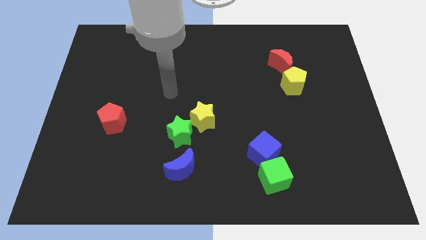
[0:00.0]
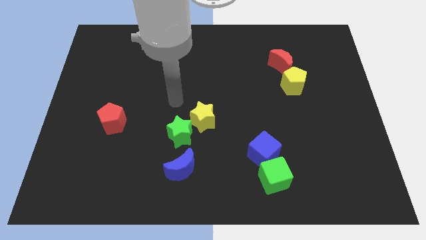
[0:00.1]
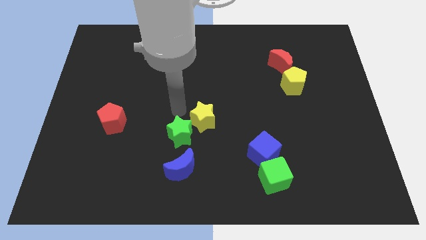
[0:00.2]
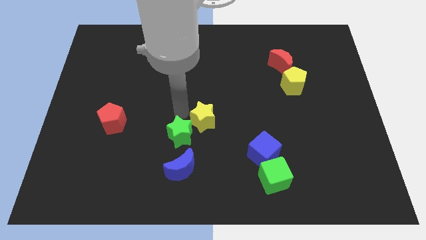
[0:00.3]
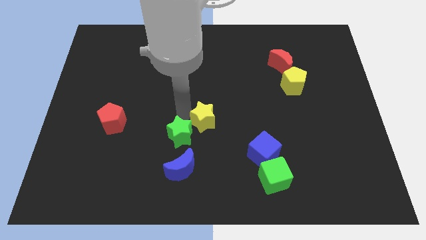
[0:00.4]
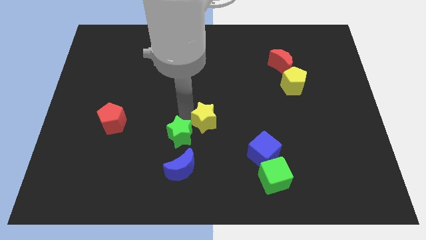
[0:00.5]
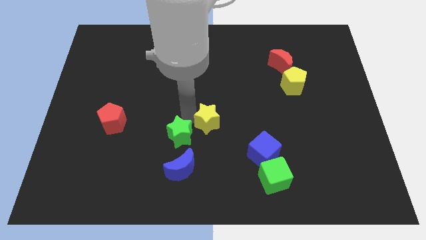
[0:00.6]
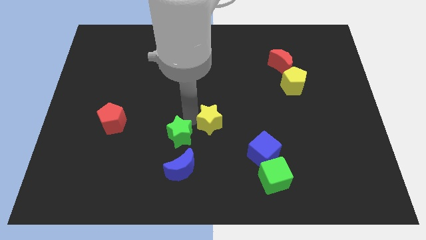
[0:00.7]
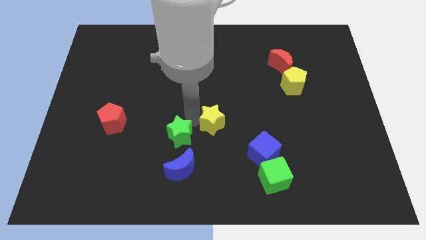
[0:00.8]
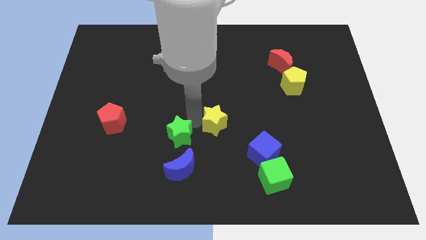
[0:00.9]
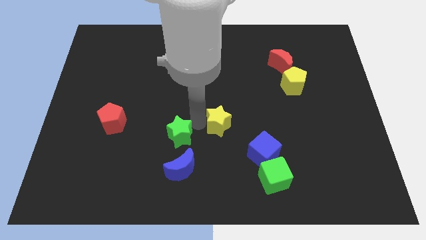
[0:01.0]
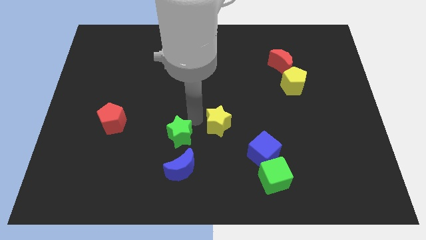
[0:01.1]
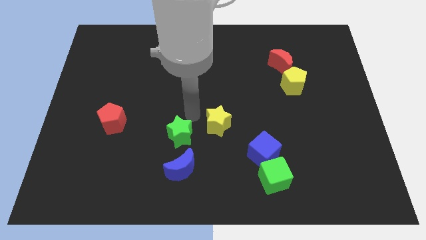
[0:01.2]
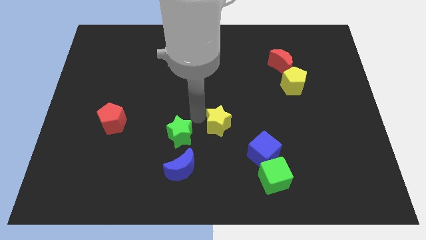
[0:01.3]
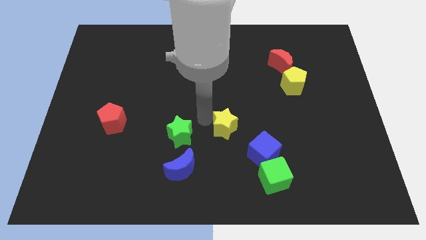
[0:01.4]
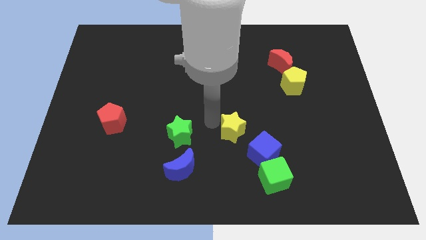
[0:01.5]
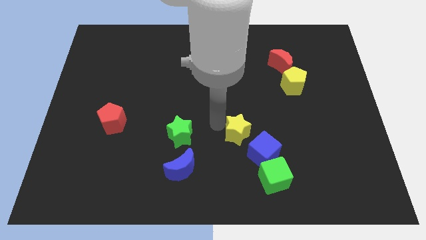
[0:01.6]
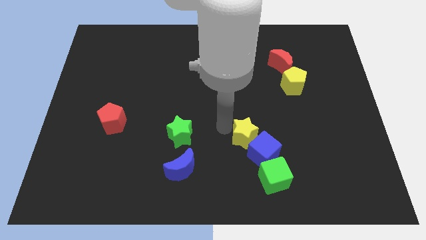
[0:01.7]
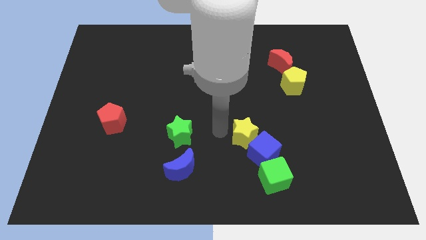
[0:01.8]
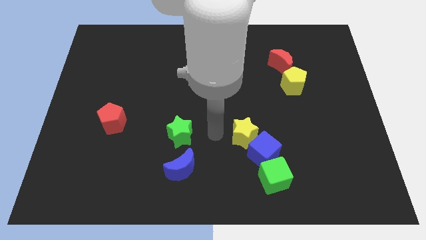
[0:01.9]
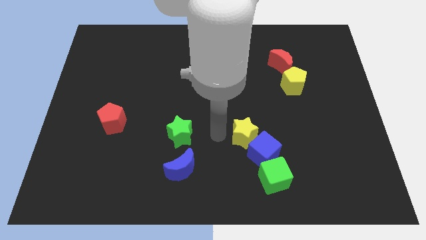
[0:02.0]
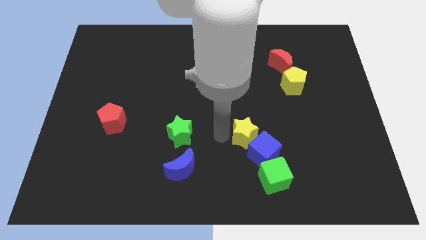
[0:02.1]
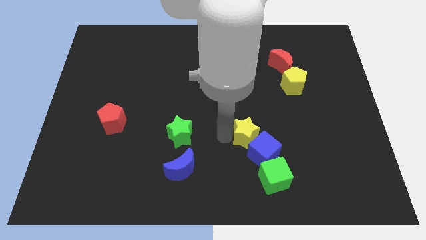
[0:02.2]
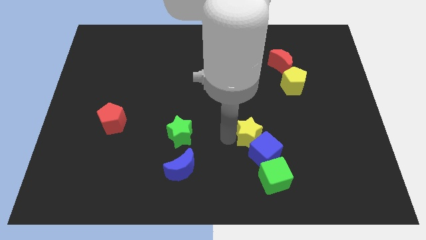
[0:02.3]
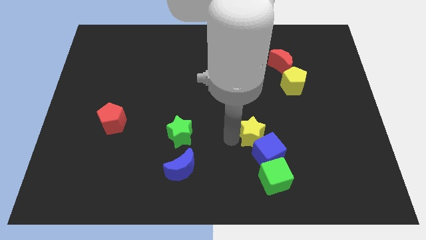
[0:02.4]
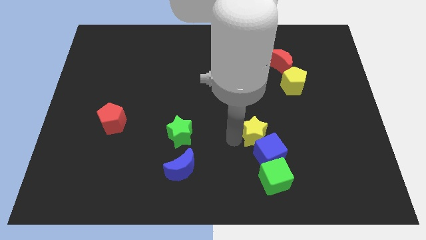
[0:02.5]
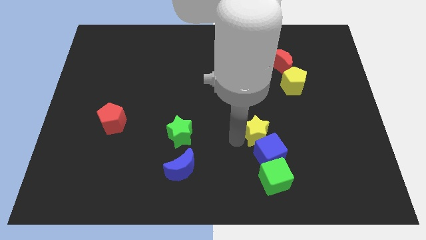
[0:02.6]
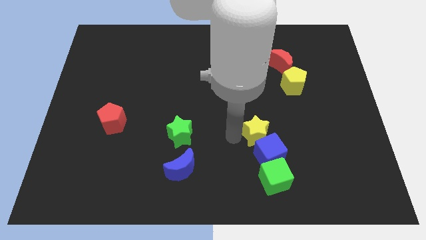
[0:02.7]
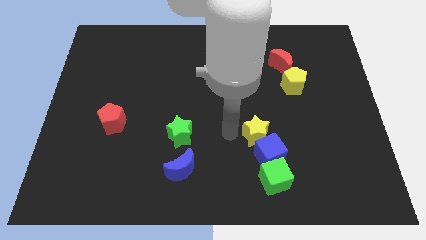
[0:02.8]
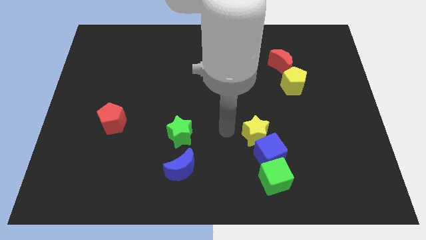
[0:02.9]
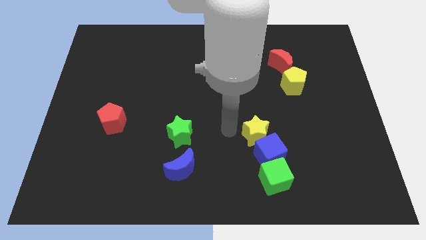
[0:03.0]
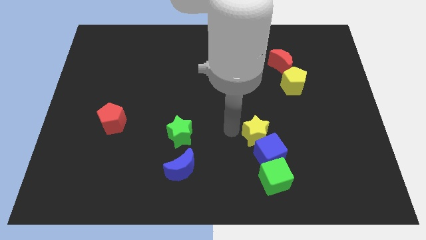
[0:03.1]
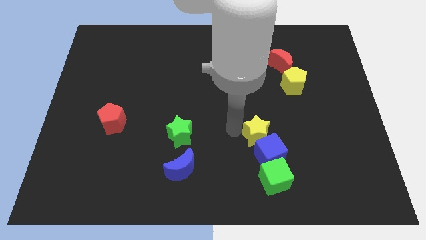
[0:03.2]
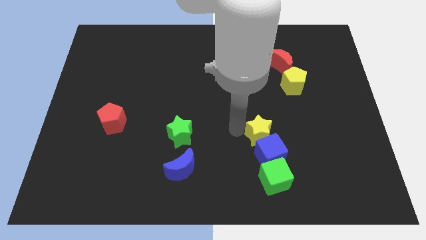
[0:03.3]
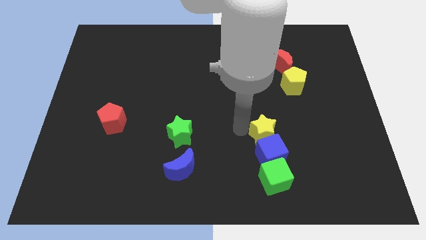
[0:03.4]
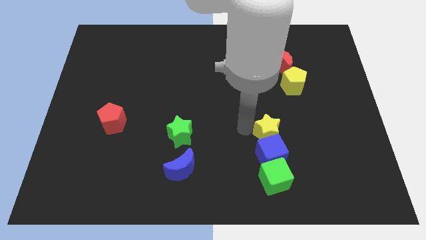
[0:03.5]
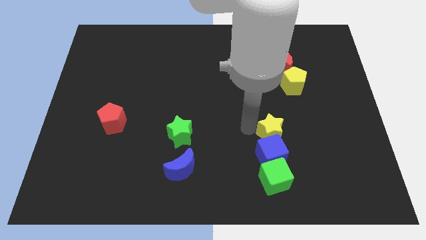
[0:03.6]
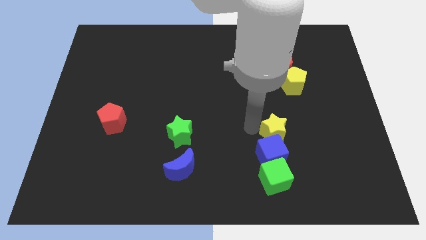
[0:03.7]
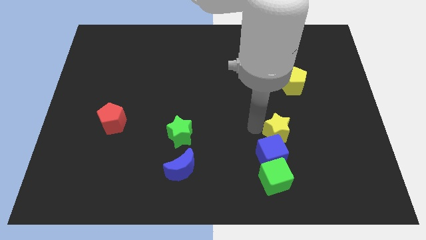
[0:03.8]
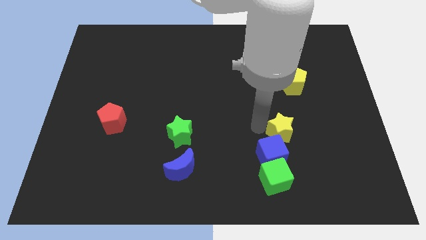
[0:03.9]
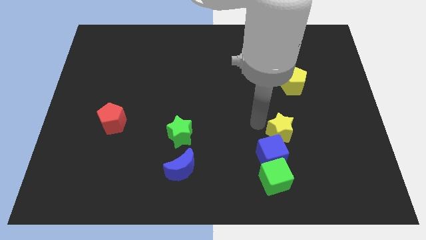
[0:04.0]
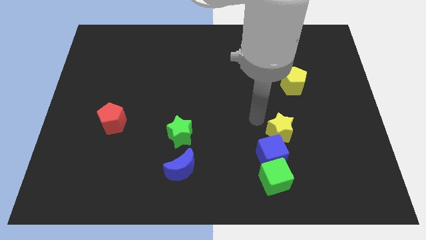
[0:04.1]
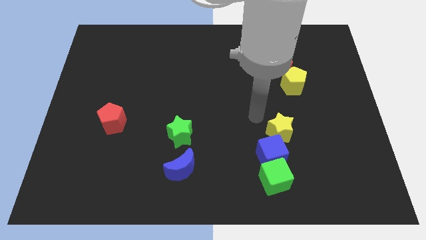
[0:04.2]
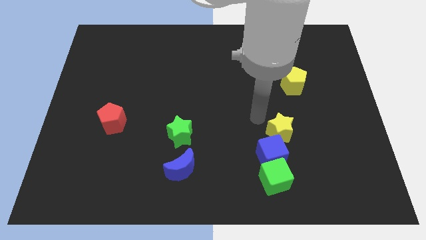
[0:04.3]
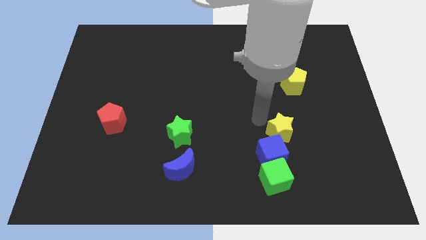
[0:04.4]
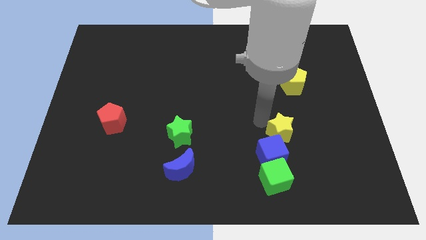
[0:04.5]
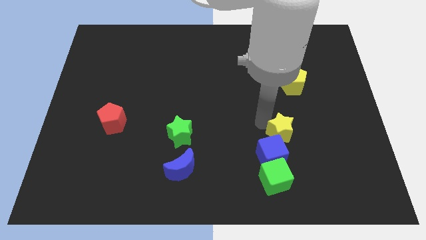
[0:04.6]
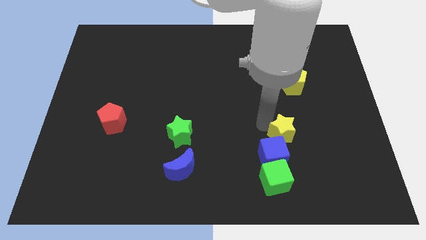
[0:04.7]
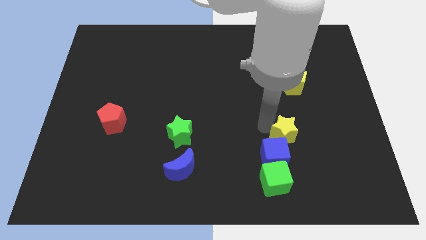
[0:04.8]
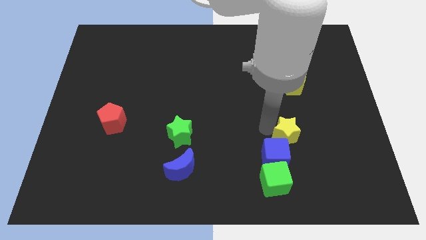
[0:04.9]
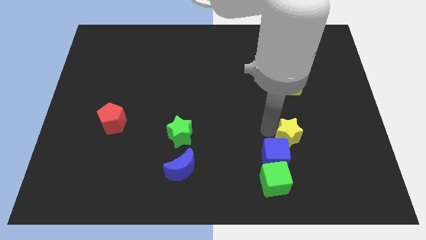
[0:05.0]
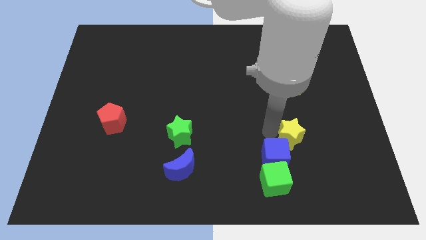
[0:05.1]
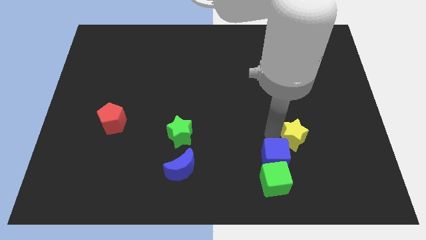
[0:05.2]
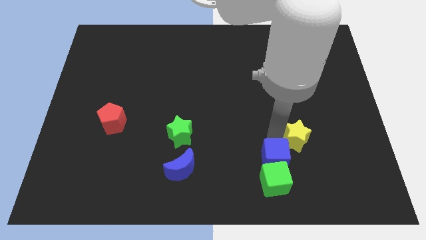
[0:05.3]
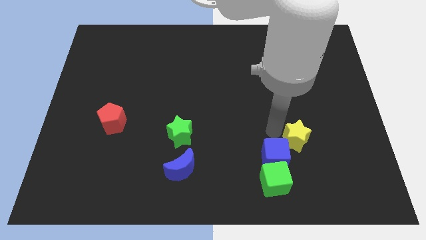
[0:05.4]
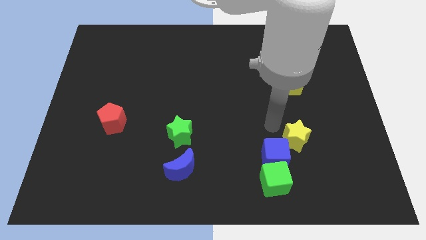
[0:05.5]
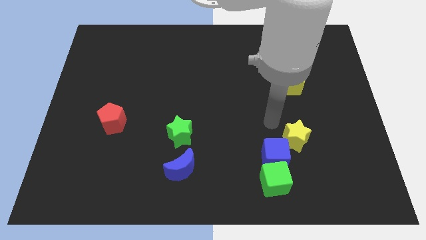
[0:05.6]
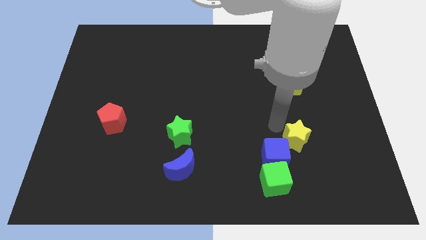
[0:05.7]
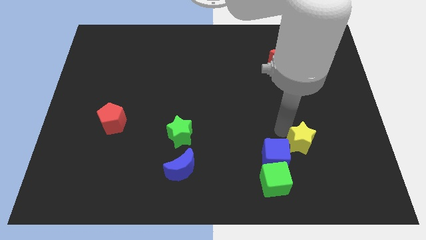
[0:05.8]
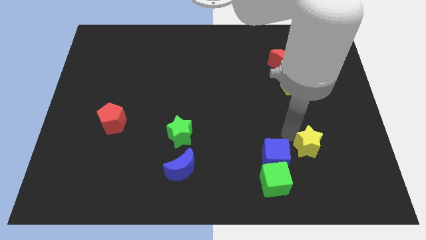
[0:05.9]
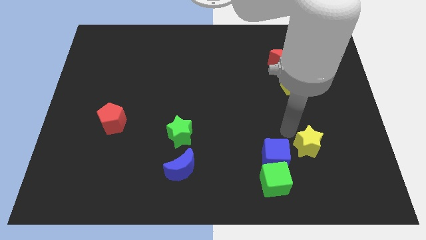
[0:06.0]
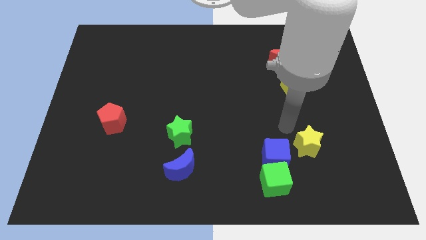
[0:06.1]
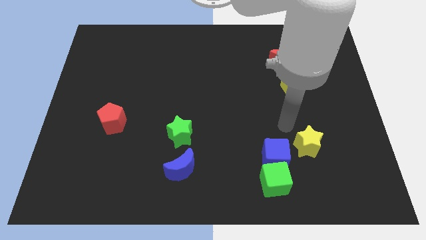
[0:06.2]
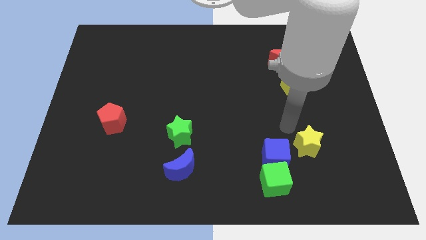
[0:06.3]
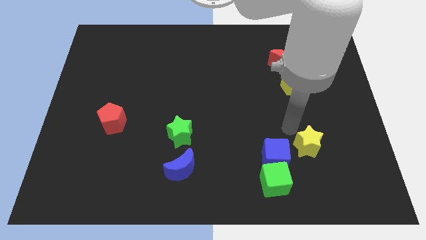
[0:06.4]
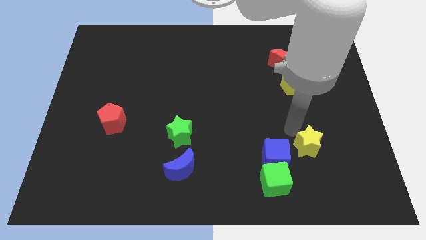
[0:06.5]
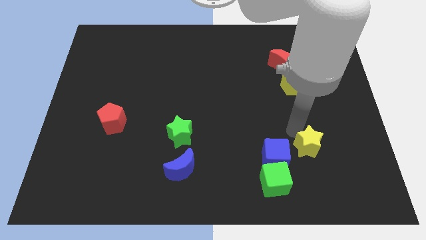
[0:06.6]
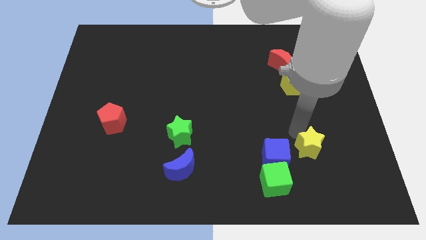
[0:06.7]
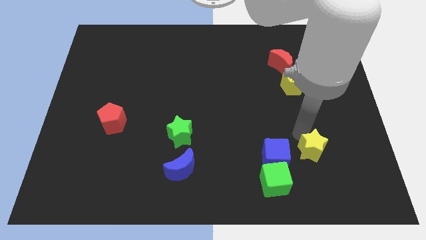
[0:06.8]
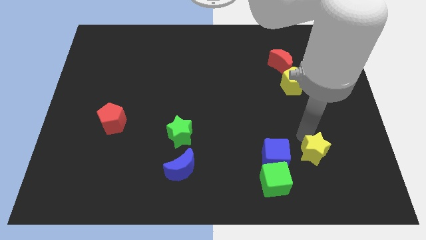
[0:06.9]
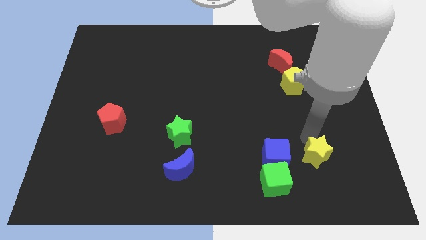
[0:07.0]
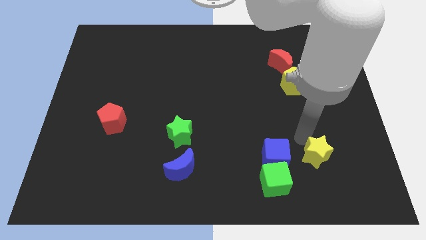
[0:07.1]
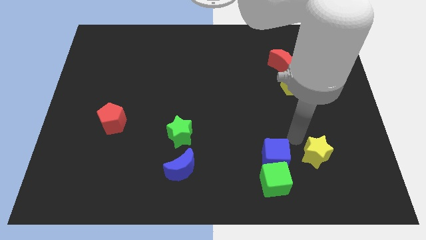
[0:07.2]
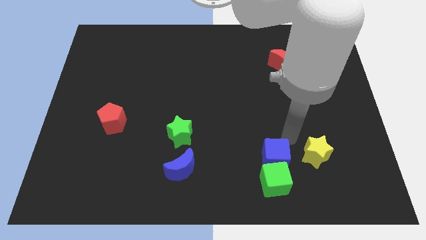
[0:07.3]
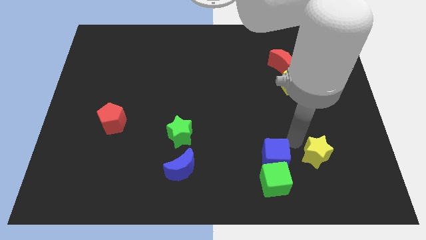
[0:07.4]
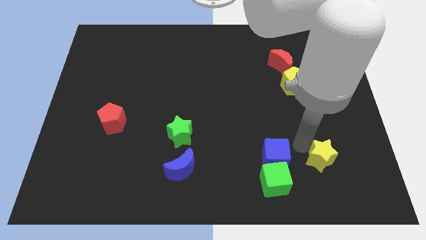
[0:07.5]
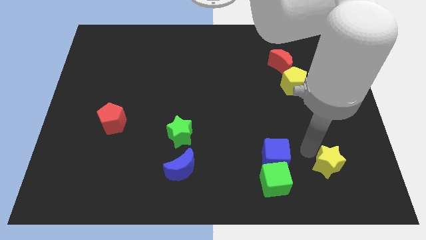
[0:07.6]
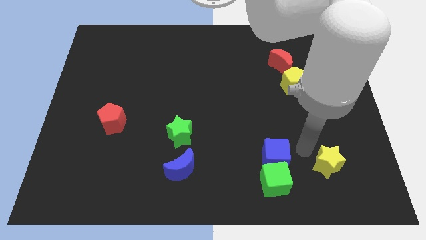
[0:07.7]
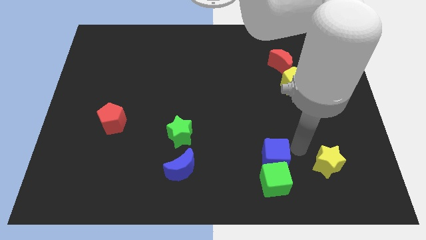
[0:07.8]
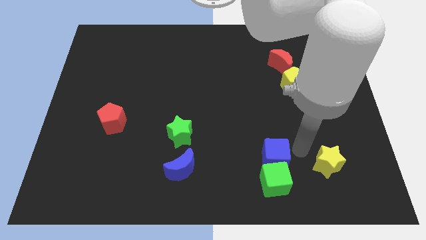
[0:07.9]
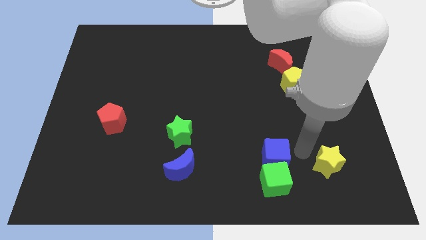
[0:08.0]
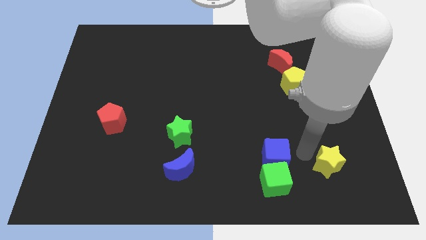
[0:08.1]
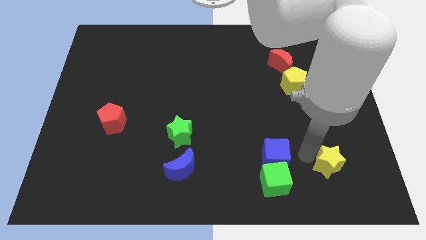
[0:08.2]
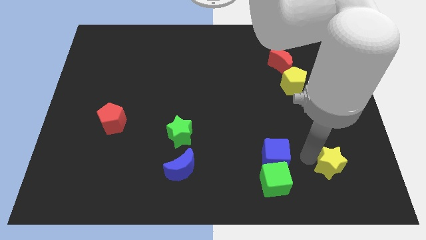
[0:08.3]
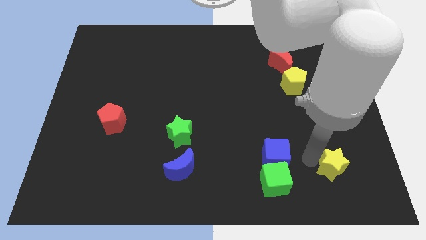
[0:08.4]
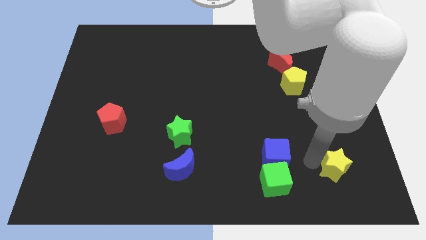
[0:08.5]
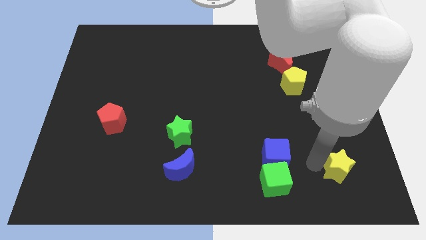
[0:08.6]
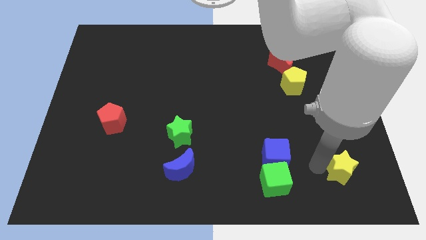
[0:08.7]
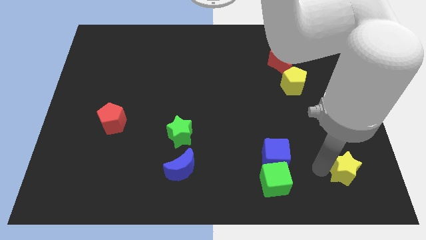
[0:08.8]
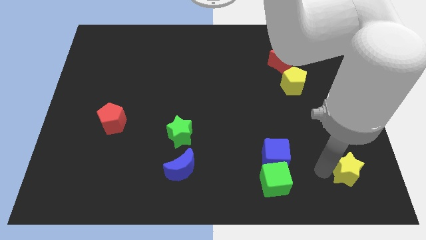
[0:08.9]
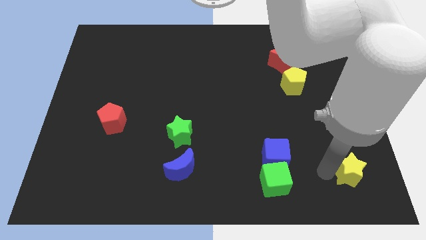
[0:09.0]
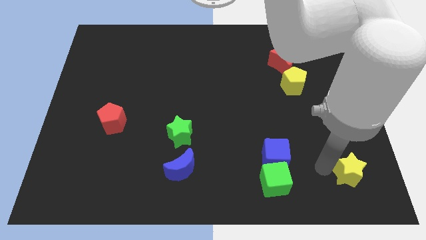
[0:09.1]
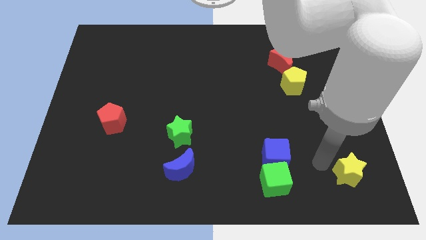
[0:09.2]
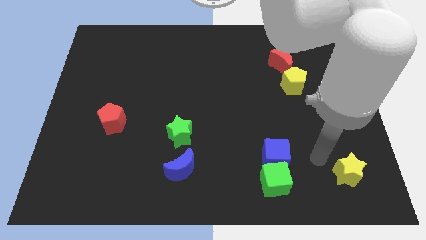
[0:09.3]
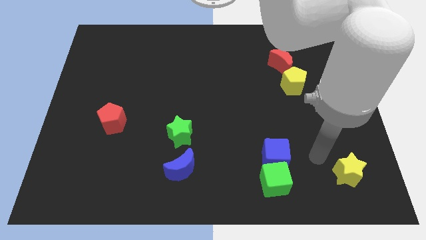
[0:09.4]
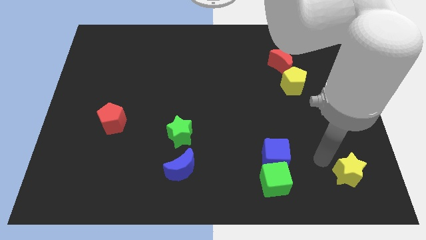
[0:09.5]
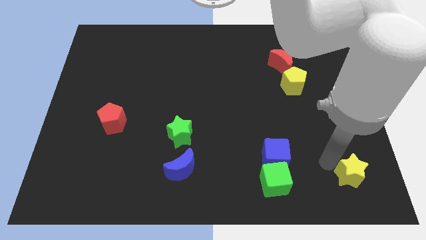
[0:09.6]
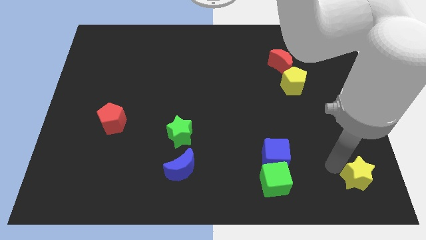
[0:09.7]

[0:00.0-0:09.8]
put the yellow star to the bottom right corner
